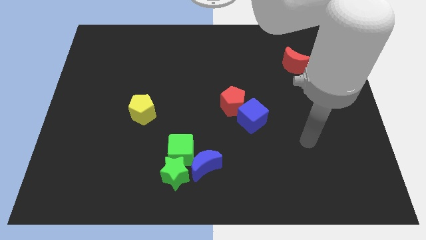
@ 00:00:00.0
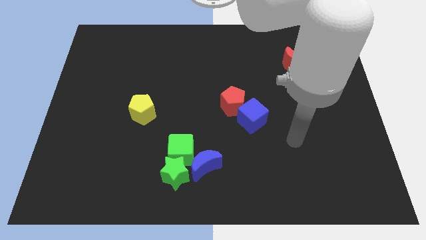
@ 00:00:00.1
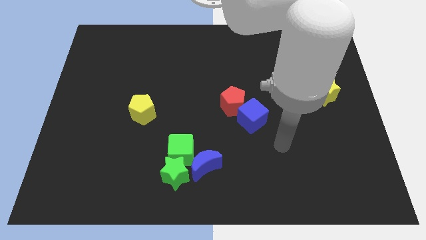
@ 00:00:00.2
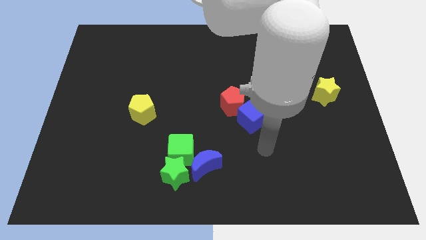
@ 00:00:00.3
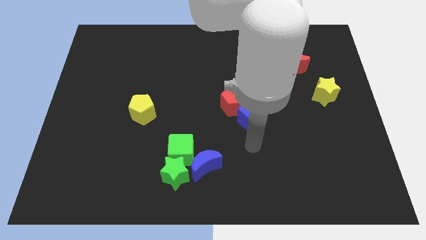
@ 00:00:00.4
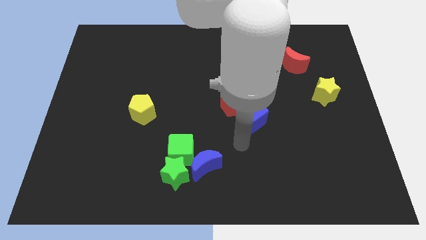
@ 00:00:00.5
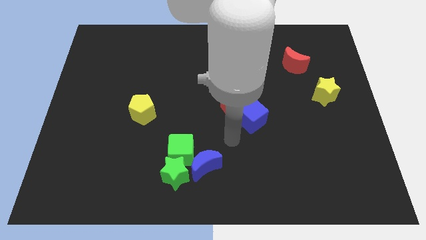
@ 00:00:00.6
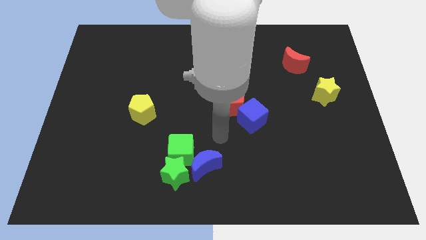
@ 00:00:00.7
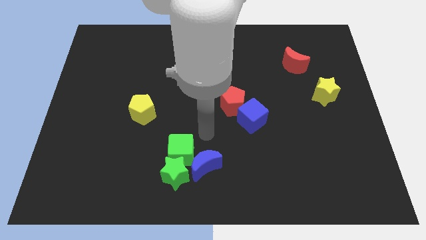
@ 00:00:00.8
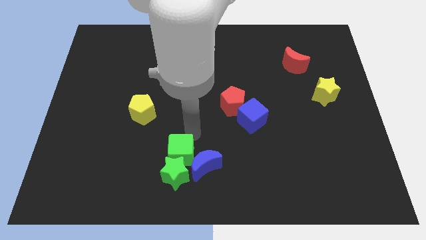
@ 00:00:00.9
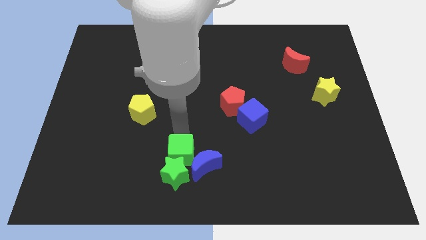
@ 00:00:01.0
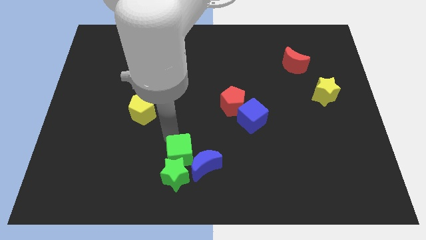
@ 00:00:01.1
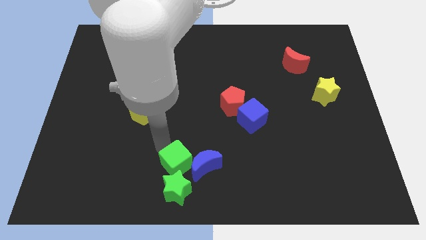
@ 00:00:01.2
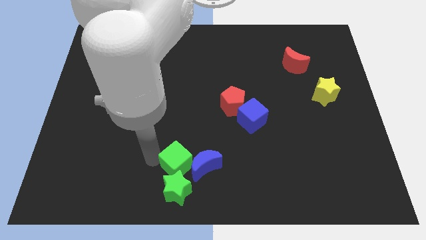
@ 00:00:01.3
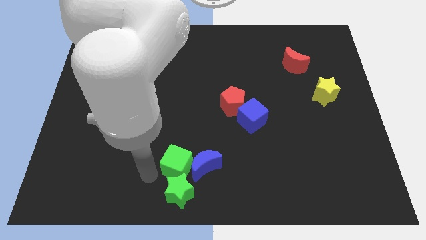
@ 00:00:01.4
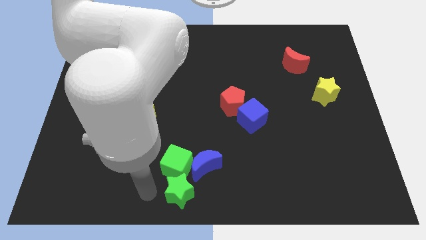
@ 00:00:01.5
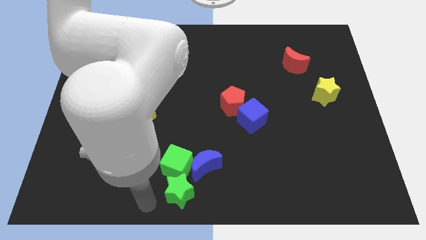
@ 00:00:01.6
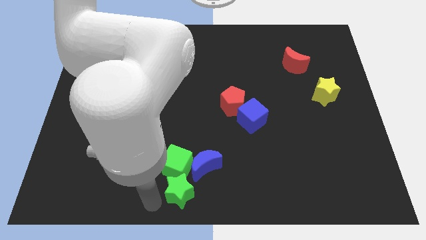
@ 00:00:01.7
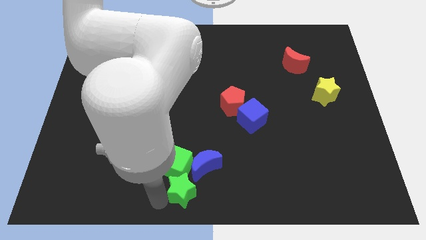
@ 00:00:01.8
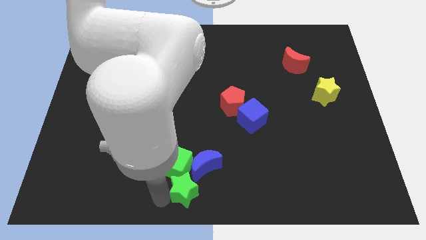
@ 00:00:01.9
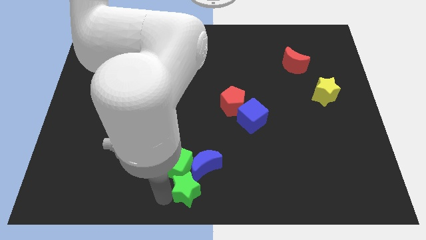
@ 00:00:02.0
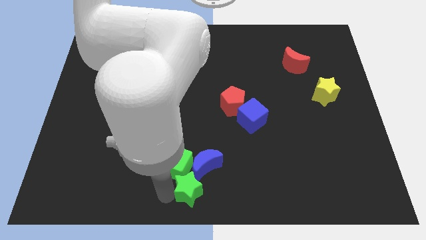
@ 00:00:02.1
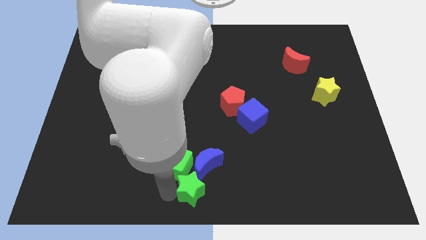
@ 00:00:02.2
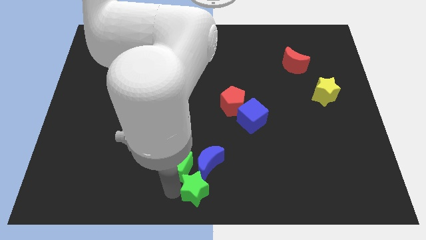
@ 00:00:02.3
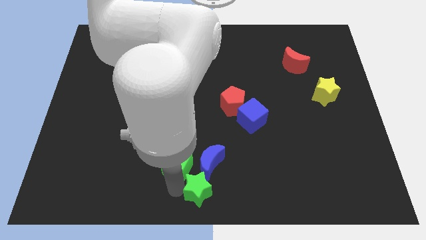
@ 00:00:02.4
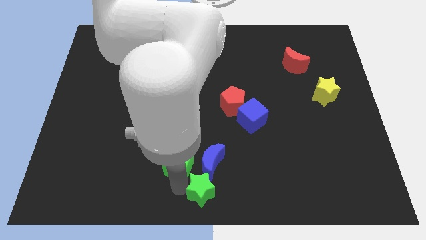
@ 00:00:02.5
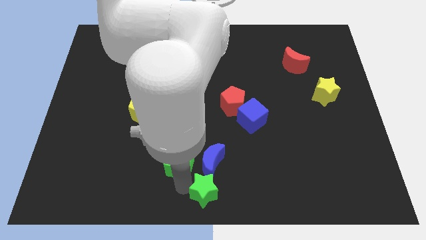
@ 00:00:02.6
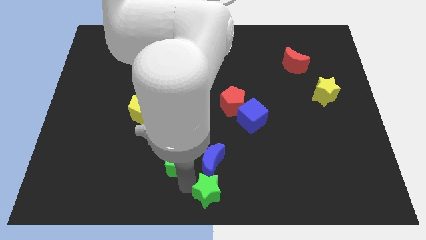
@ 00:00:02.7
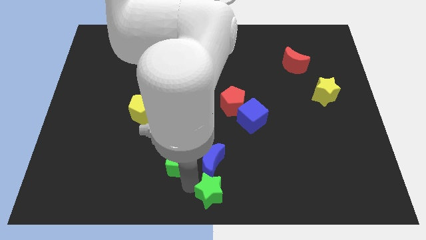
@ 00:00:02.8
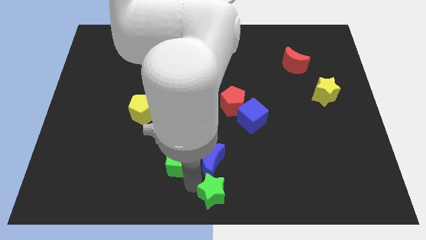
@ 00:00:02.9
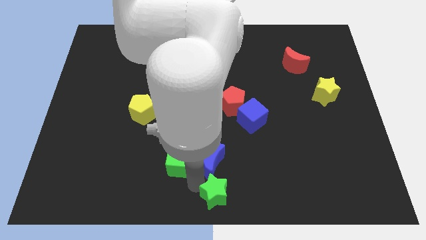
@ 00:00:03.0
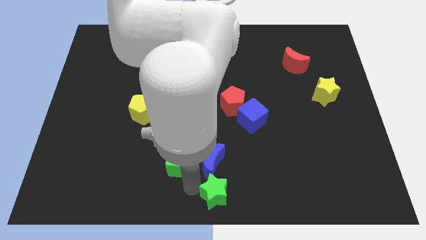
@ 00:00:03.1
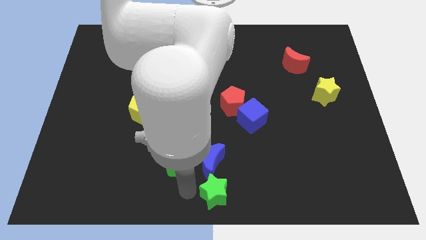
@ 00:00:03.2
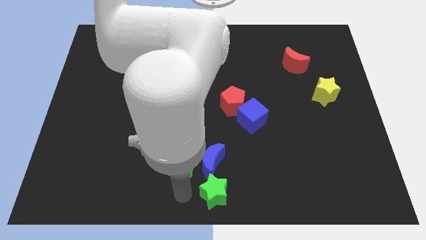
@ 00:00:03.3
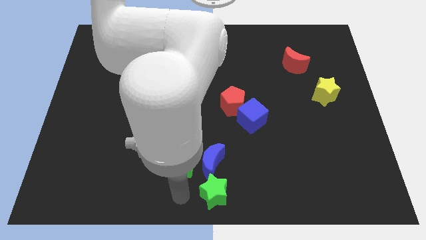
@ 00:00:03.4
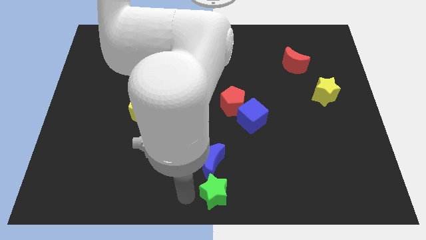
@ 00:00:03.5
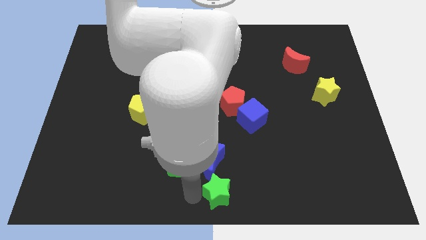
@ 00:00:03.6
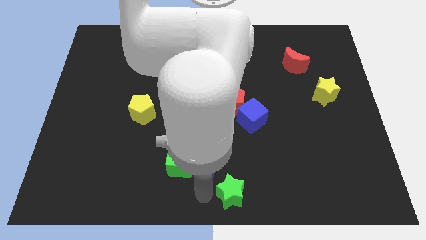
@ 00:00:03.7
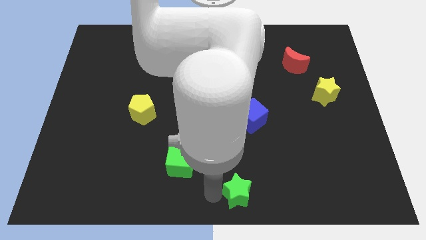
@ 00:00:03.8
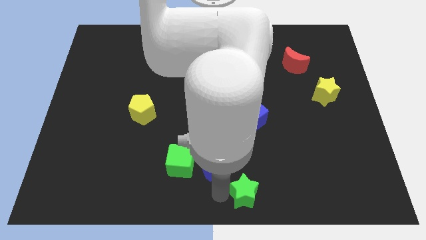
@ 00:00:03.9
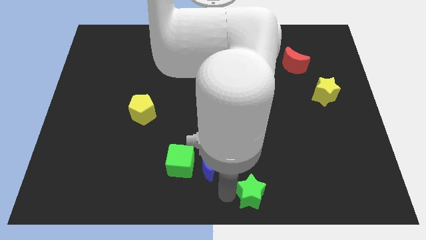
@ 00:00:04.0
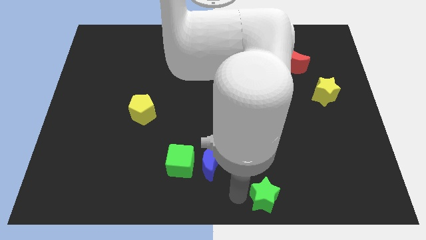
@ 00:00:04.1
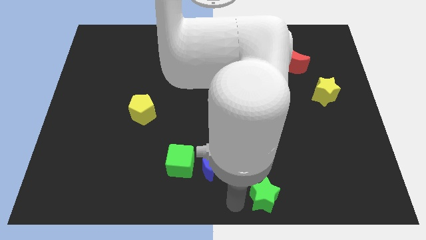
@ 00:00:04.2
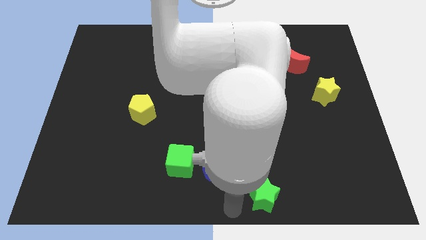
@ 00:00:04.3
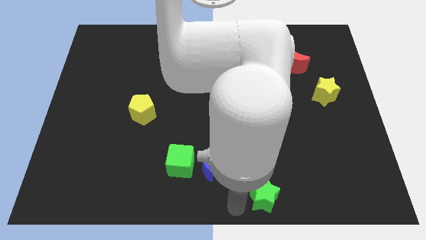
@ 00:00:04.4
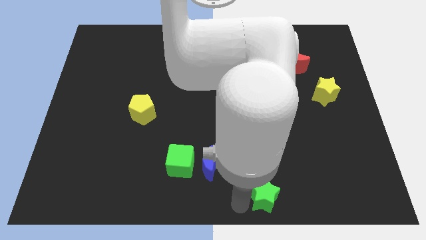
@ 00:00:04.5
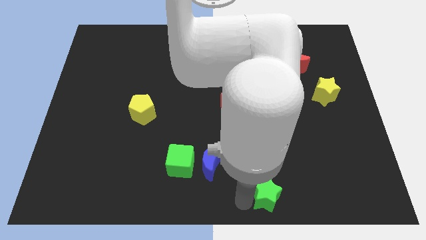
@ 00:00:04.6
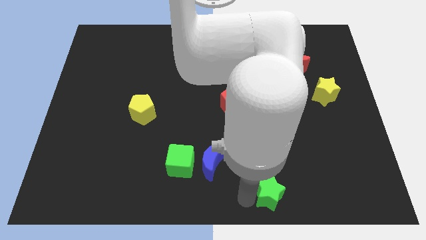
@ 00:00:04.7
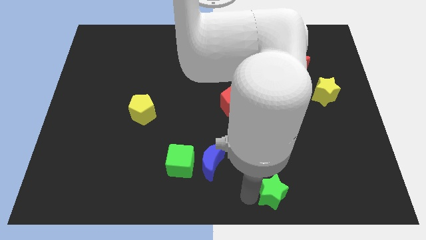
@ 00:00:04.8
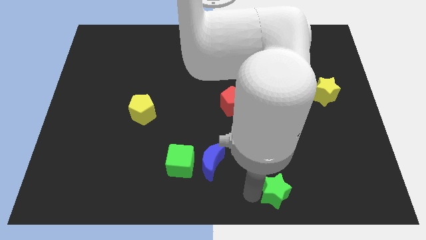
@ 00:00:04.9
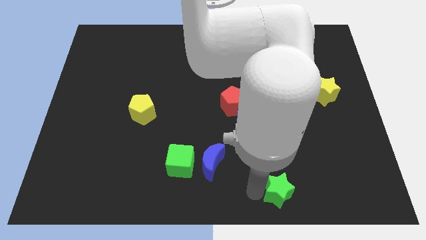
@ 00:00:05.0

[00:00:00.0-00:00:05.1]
push the green star right

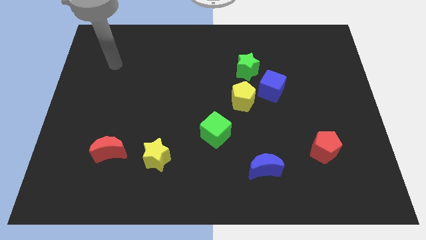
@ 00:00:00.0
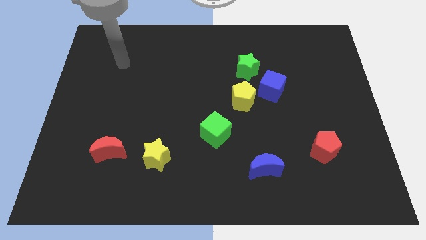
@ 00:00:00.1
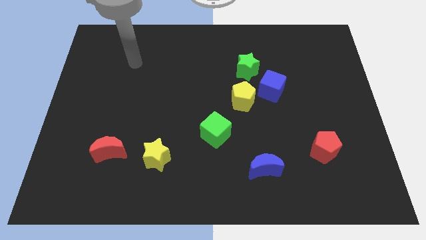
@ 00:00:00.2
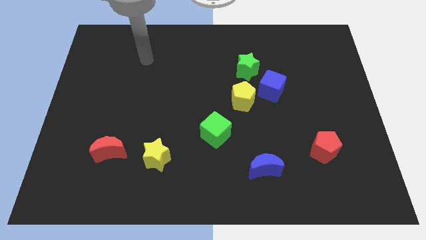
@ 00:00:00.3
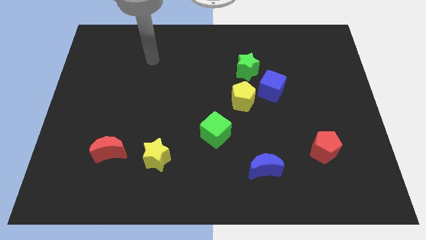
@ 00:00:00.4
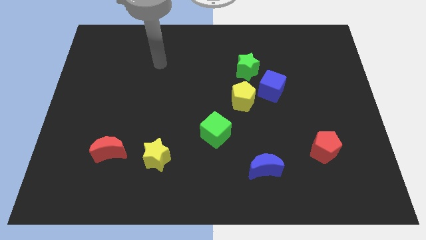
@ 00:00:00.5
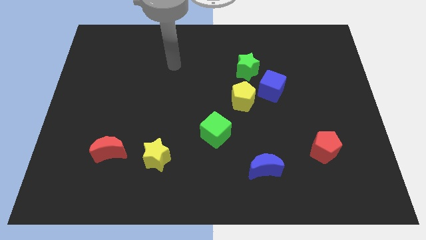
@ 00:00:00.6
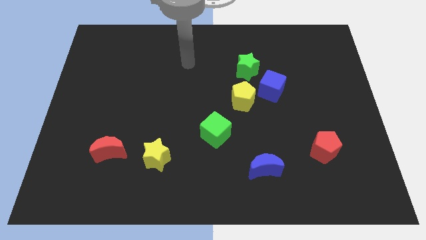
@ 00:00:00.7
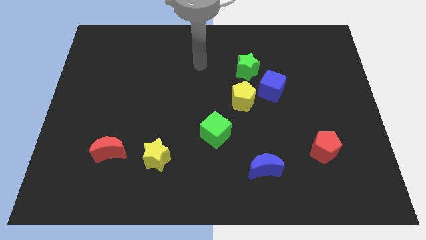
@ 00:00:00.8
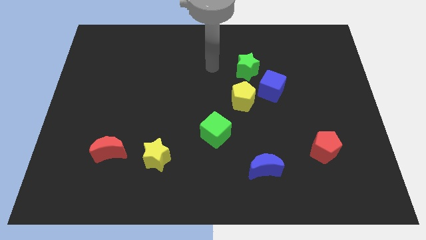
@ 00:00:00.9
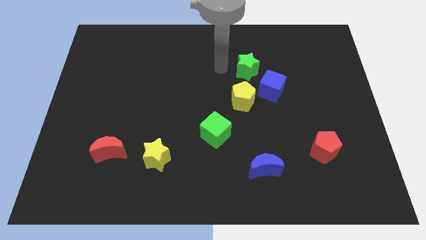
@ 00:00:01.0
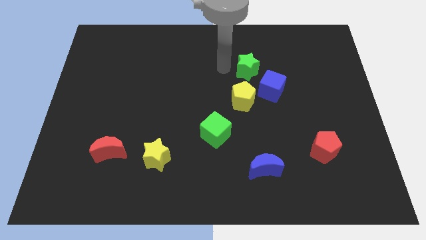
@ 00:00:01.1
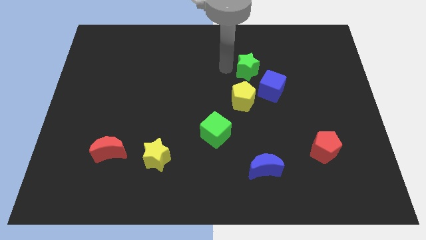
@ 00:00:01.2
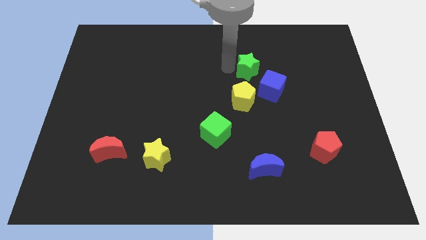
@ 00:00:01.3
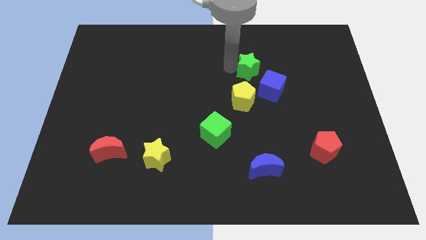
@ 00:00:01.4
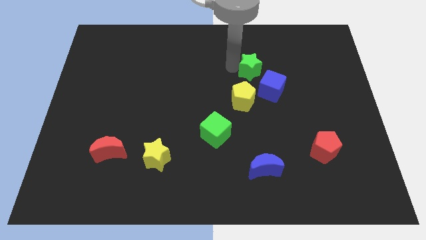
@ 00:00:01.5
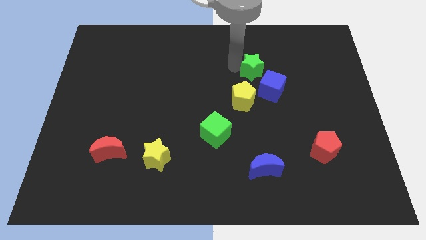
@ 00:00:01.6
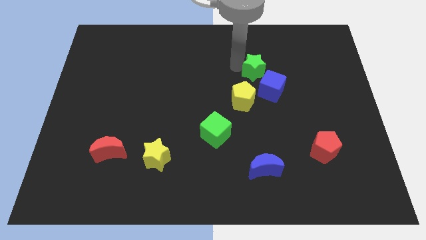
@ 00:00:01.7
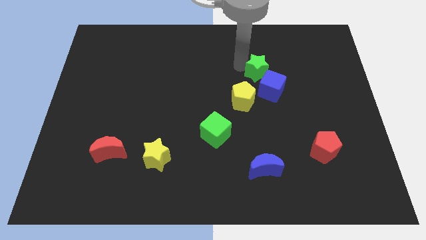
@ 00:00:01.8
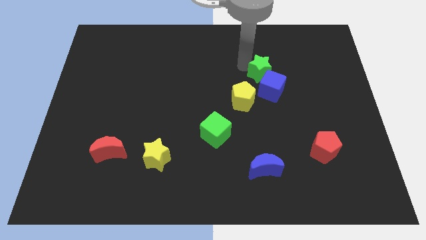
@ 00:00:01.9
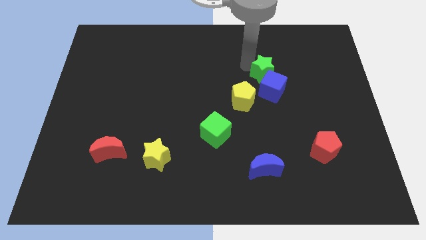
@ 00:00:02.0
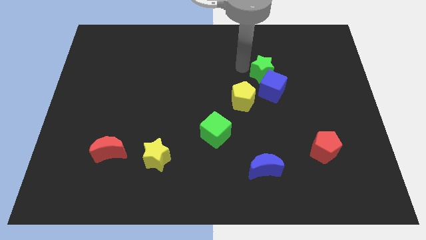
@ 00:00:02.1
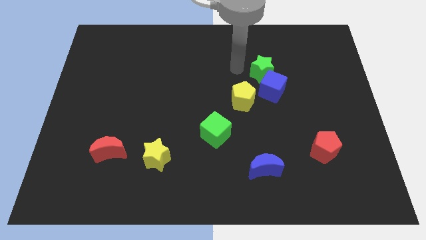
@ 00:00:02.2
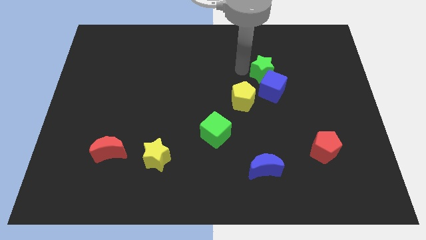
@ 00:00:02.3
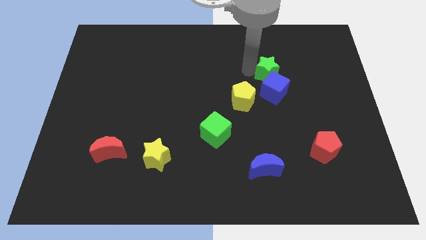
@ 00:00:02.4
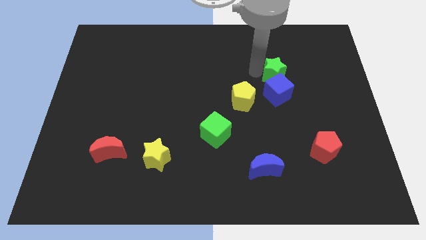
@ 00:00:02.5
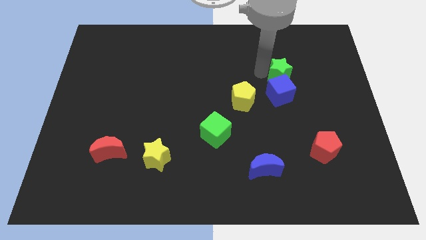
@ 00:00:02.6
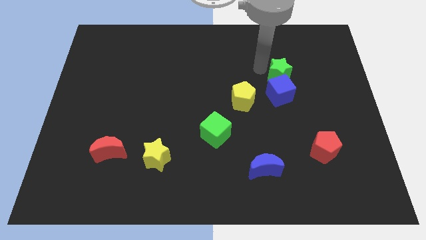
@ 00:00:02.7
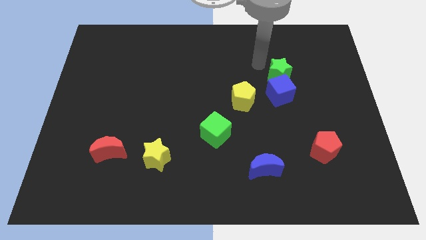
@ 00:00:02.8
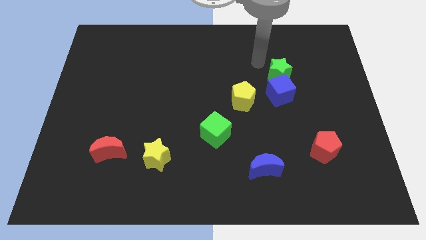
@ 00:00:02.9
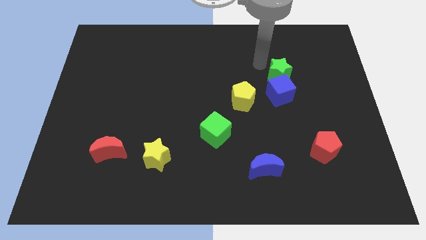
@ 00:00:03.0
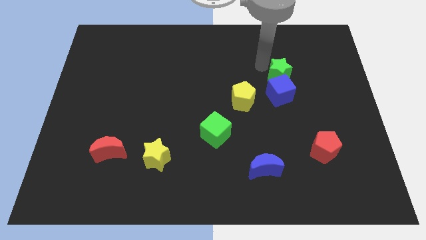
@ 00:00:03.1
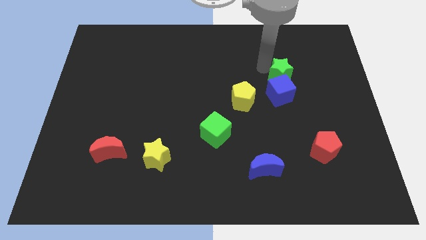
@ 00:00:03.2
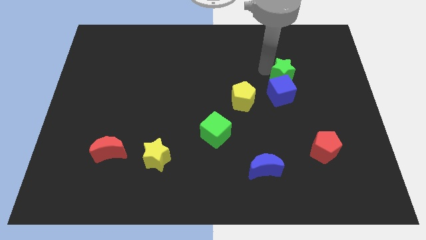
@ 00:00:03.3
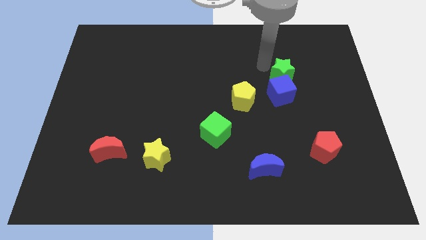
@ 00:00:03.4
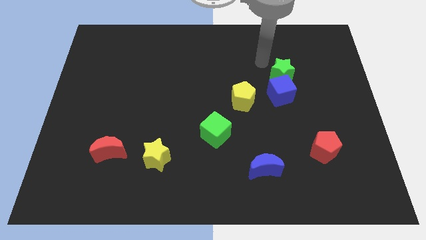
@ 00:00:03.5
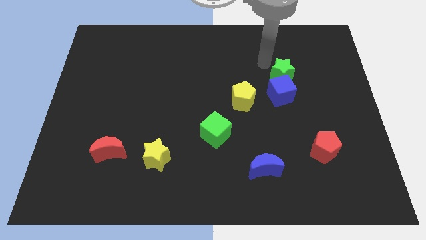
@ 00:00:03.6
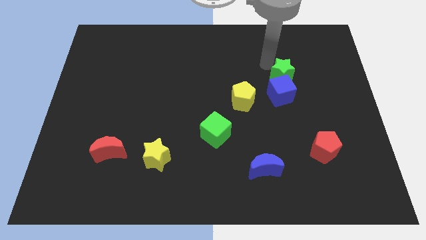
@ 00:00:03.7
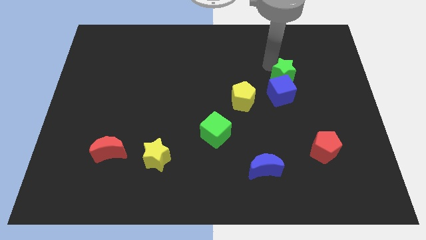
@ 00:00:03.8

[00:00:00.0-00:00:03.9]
move the green star down and right somewhat
